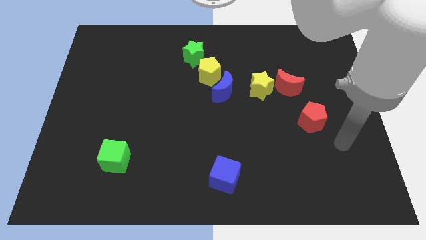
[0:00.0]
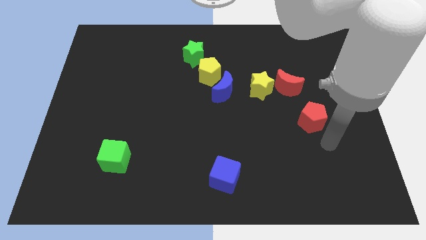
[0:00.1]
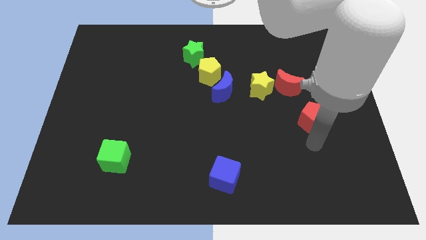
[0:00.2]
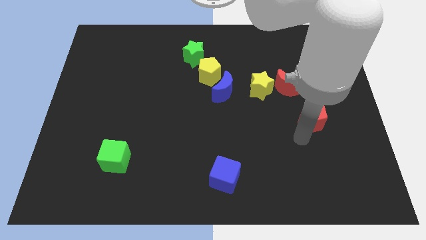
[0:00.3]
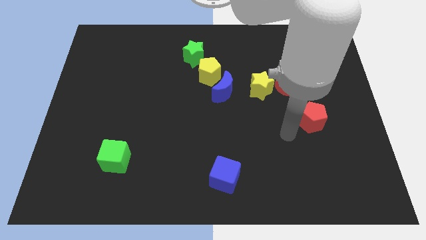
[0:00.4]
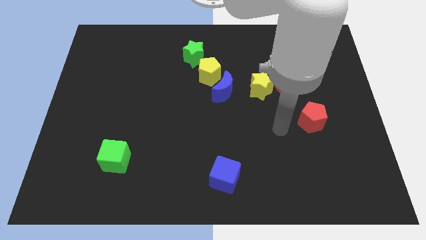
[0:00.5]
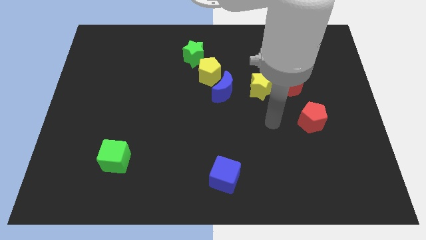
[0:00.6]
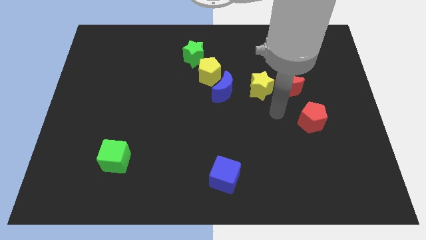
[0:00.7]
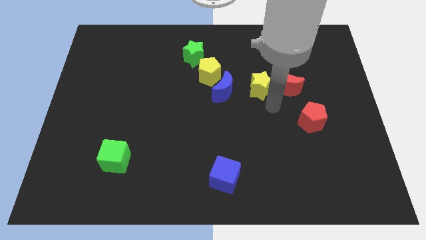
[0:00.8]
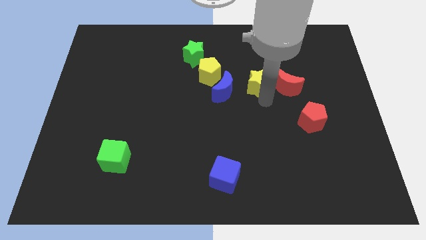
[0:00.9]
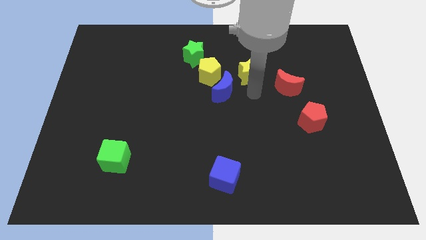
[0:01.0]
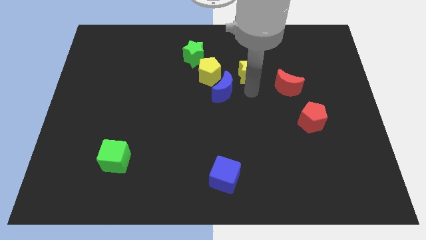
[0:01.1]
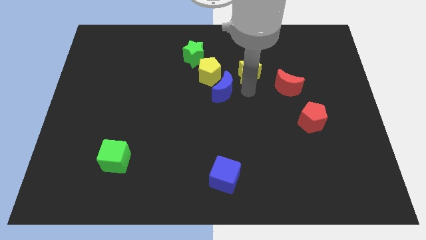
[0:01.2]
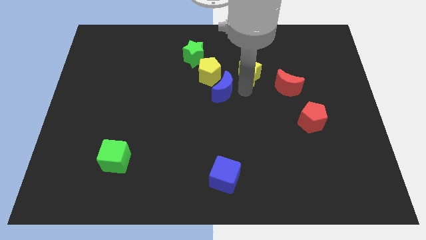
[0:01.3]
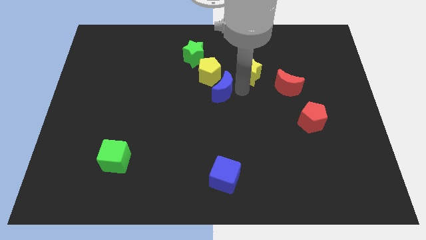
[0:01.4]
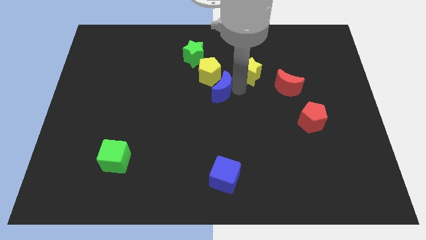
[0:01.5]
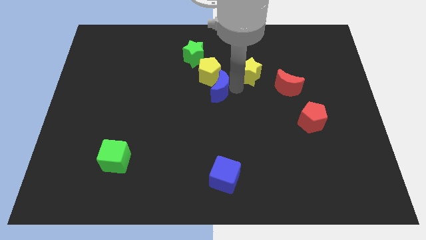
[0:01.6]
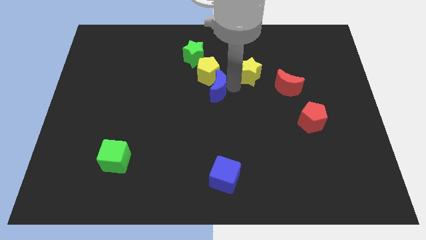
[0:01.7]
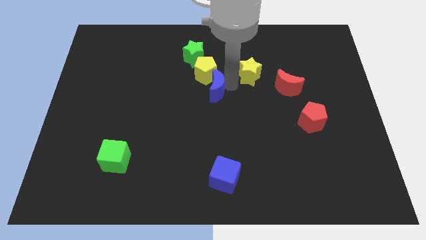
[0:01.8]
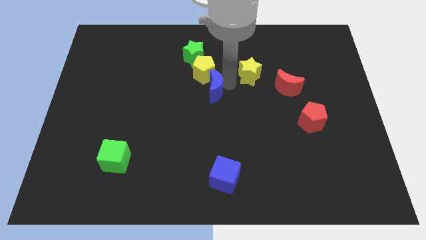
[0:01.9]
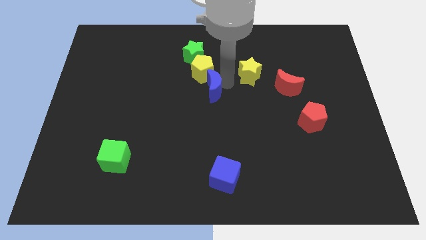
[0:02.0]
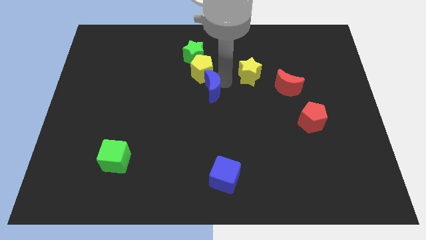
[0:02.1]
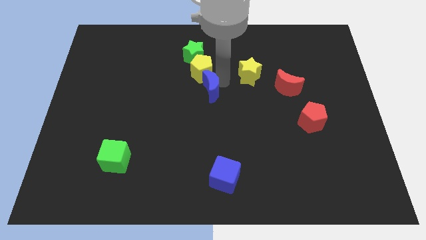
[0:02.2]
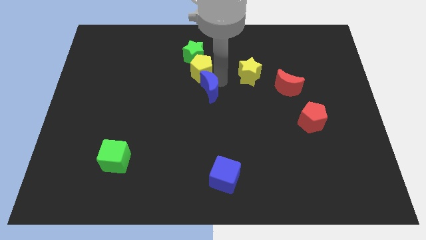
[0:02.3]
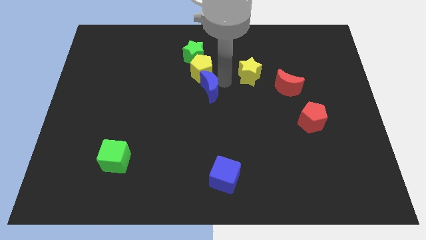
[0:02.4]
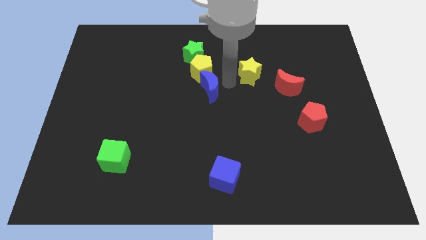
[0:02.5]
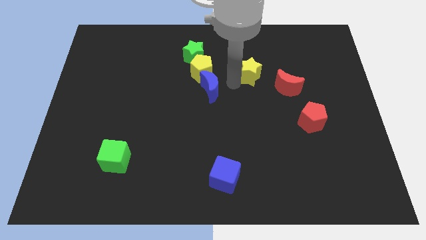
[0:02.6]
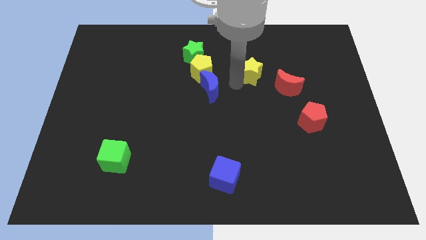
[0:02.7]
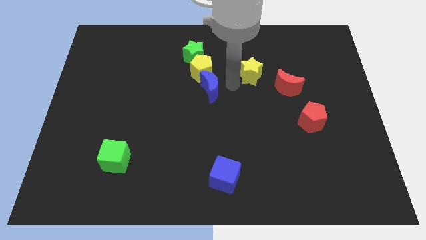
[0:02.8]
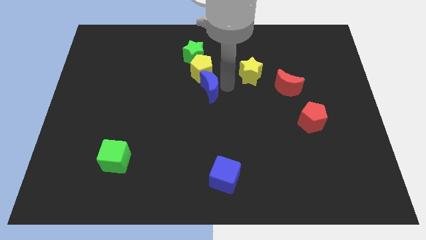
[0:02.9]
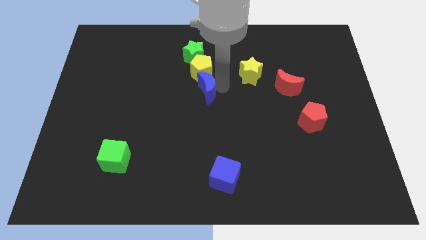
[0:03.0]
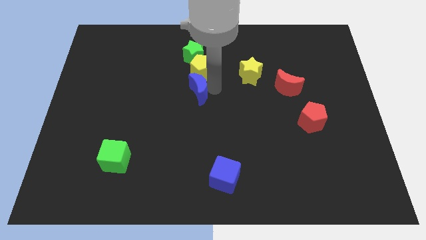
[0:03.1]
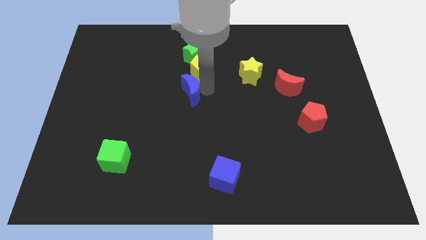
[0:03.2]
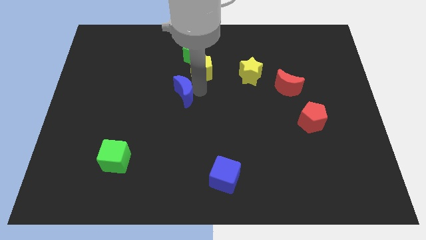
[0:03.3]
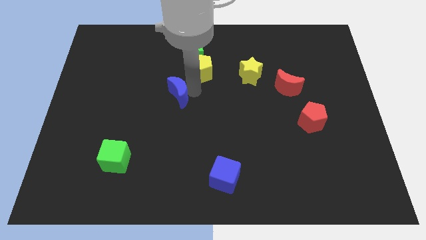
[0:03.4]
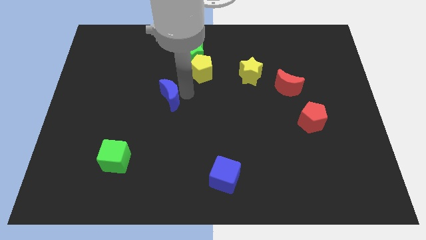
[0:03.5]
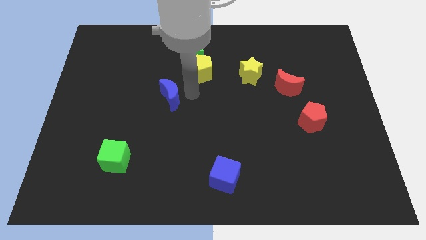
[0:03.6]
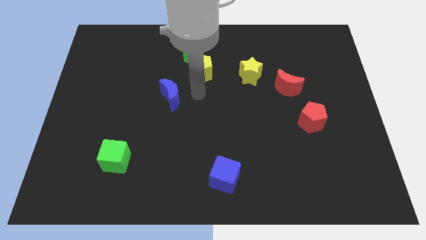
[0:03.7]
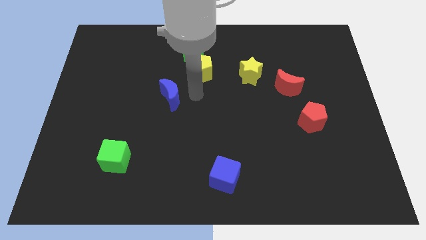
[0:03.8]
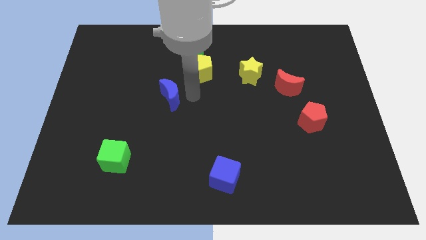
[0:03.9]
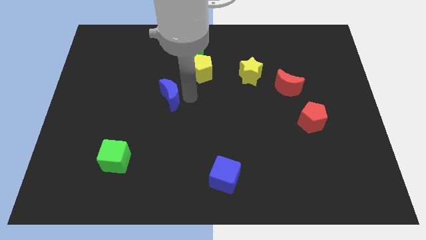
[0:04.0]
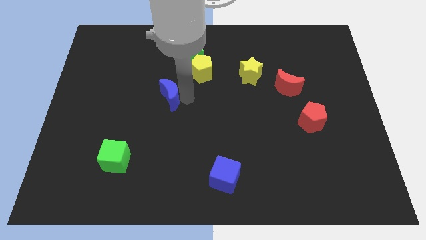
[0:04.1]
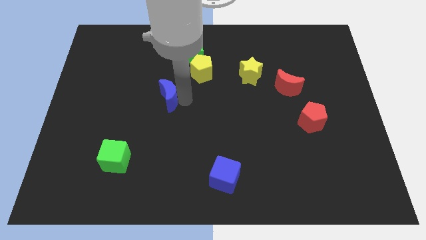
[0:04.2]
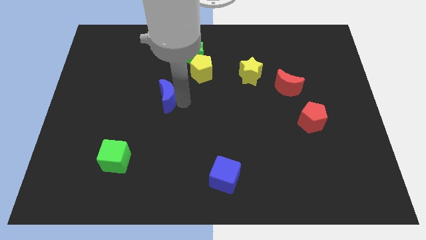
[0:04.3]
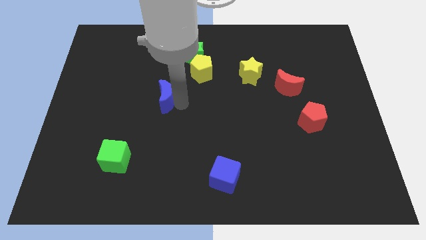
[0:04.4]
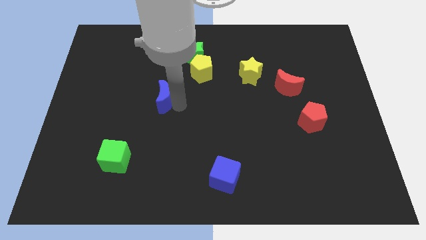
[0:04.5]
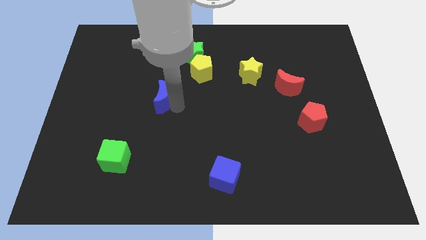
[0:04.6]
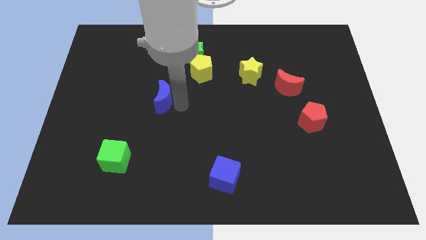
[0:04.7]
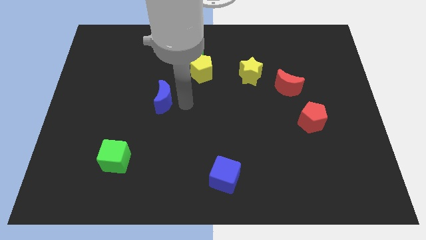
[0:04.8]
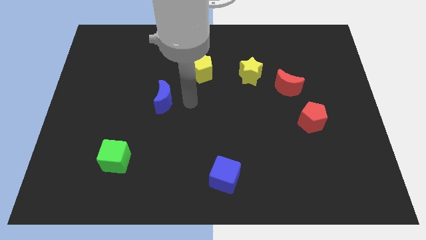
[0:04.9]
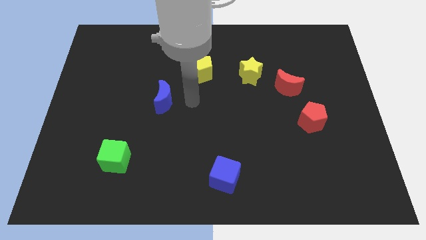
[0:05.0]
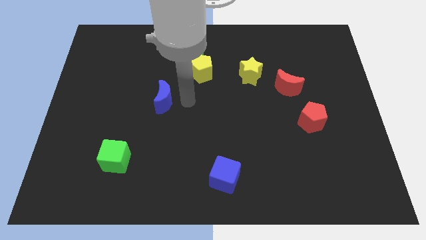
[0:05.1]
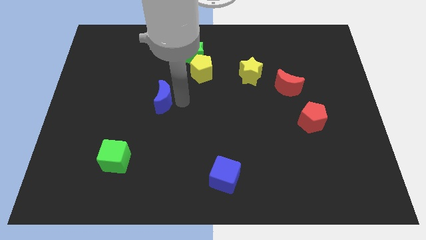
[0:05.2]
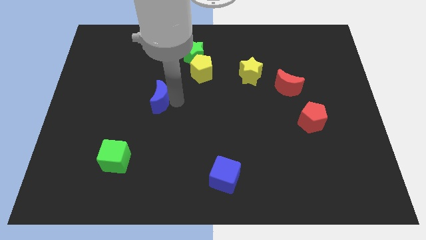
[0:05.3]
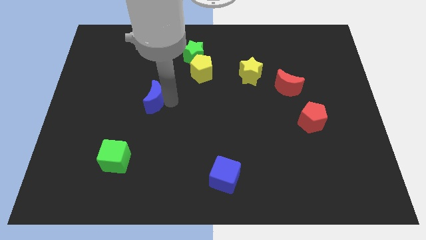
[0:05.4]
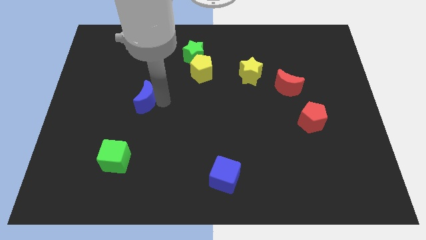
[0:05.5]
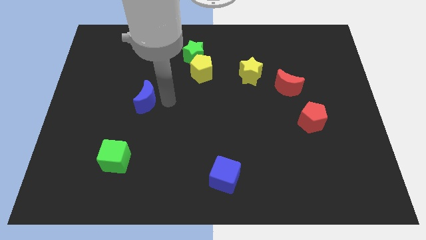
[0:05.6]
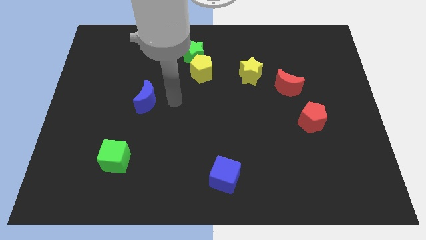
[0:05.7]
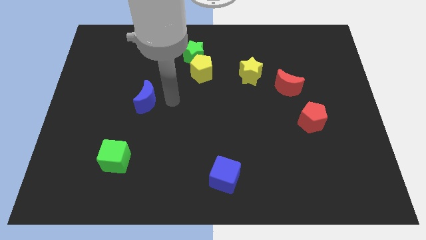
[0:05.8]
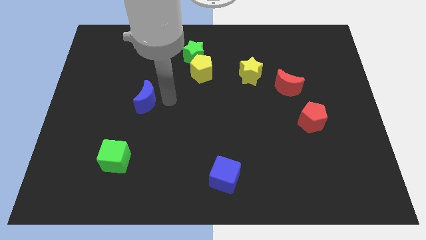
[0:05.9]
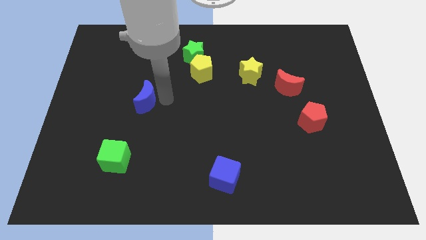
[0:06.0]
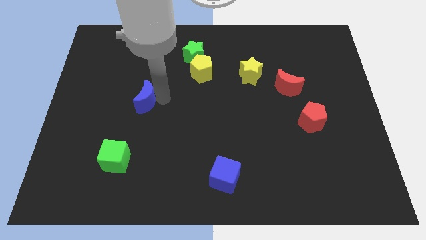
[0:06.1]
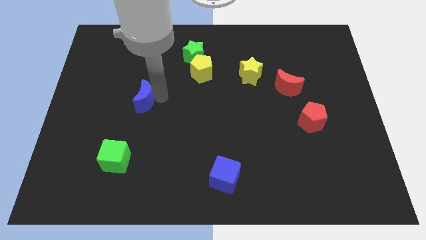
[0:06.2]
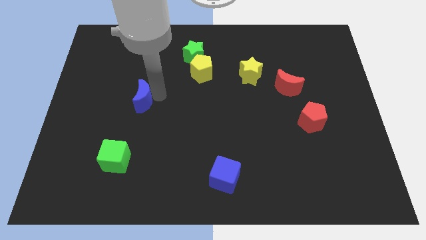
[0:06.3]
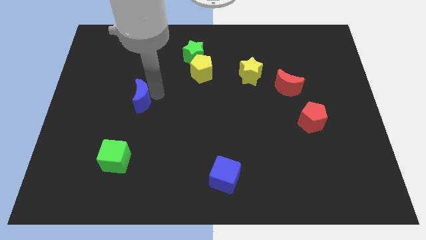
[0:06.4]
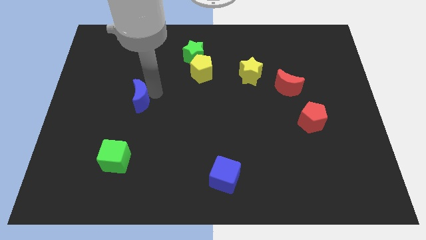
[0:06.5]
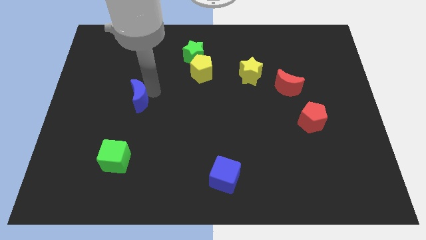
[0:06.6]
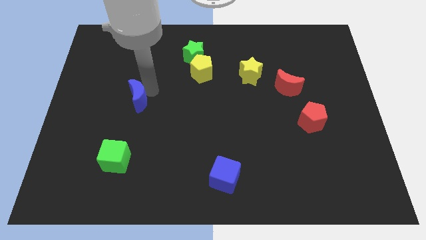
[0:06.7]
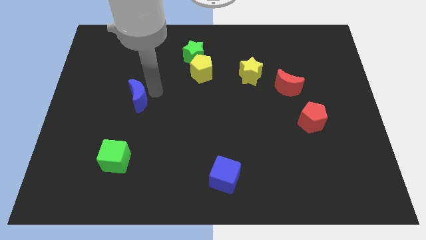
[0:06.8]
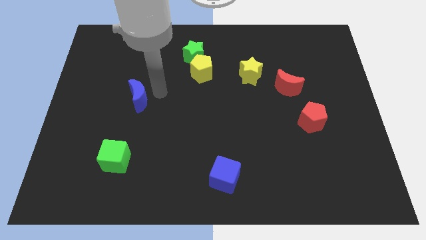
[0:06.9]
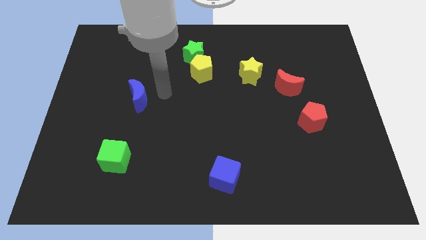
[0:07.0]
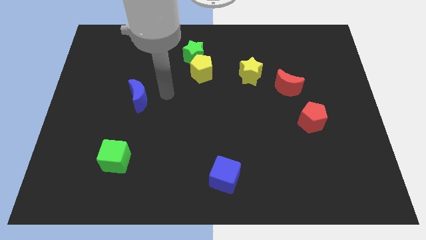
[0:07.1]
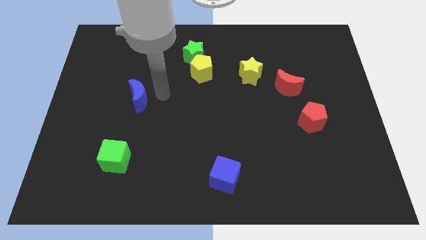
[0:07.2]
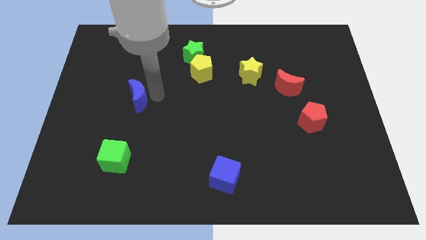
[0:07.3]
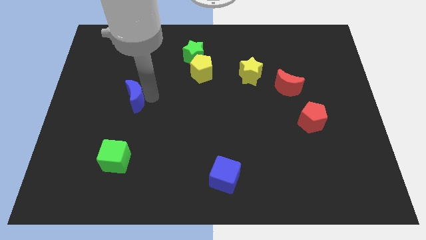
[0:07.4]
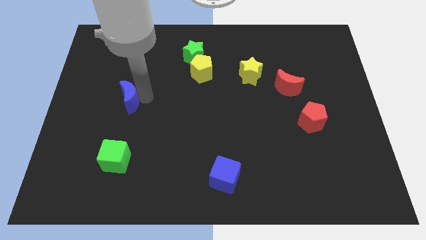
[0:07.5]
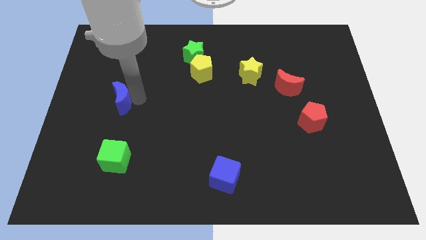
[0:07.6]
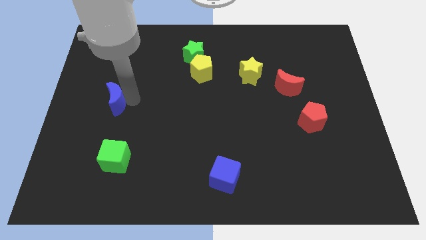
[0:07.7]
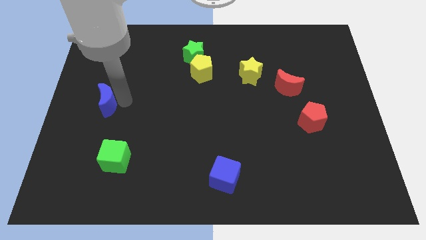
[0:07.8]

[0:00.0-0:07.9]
move the blue moon to the left side of the board
